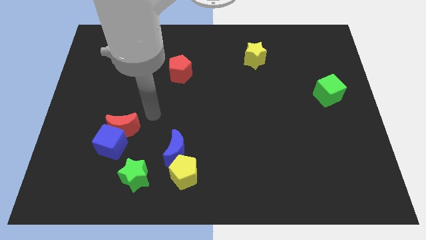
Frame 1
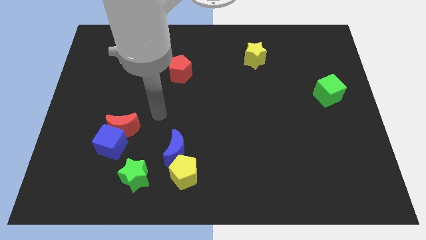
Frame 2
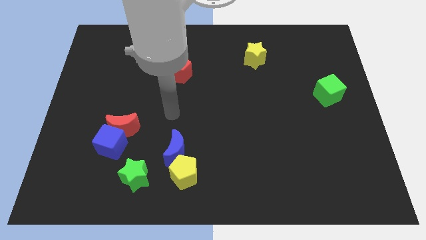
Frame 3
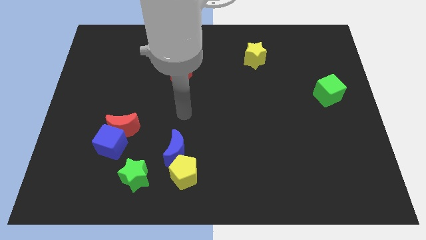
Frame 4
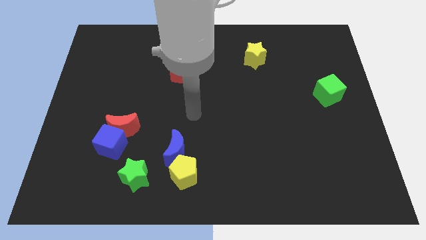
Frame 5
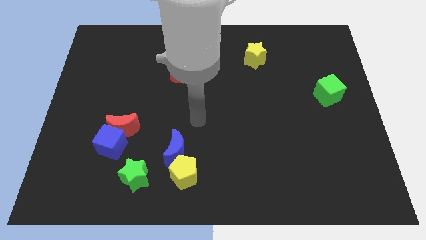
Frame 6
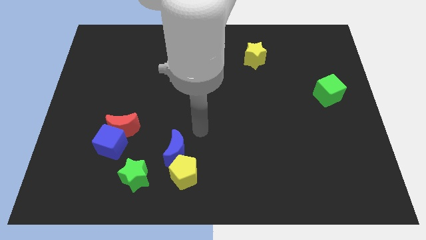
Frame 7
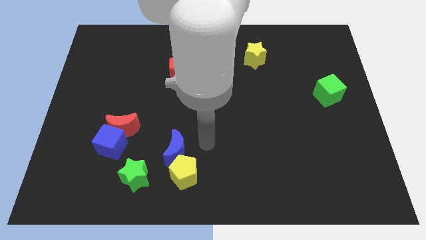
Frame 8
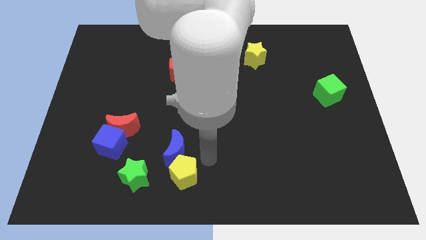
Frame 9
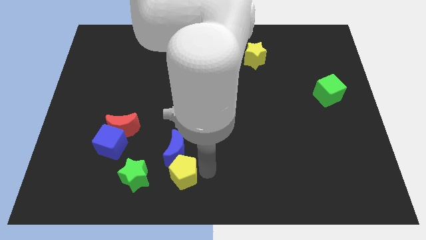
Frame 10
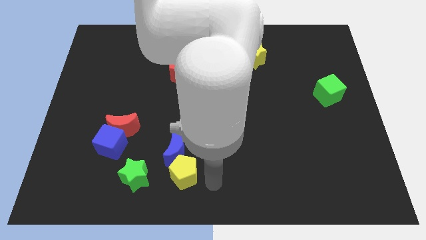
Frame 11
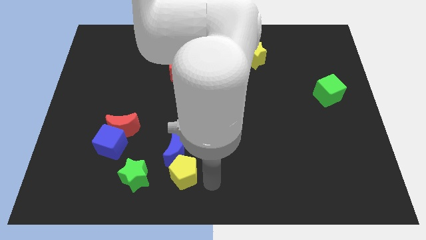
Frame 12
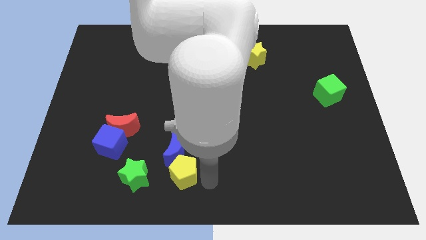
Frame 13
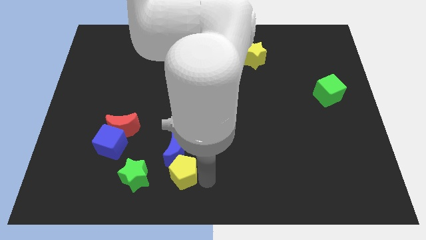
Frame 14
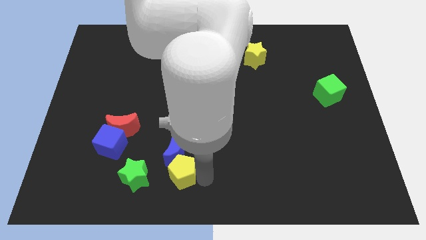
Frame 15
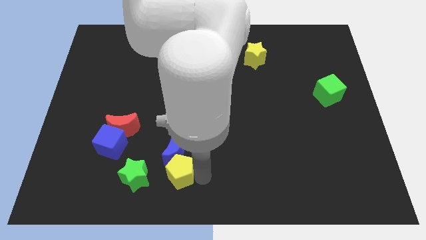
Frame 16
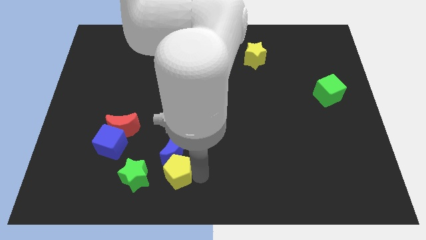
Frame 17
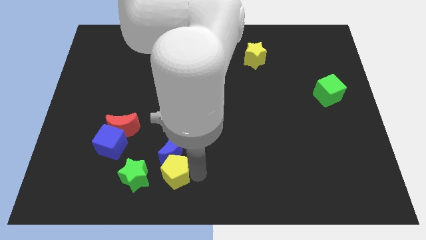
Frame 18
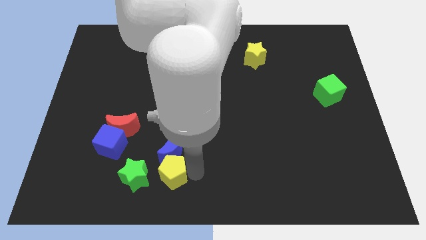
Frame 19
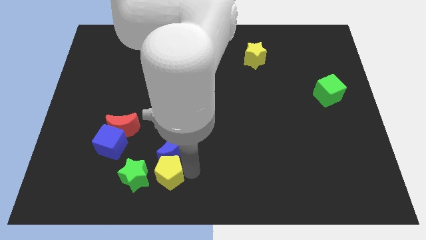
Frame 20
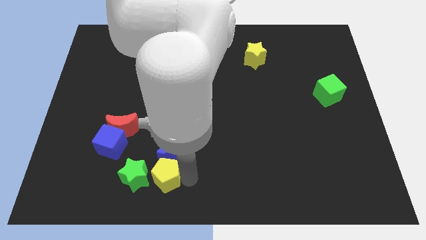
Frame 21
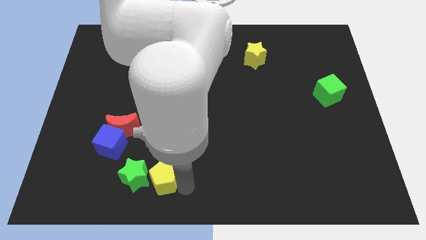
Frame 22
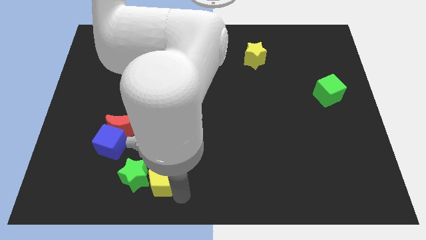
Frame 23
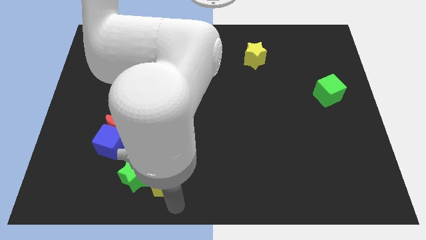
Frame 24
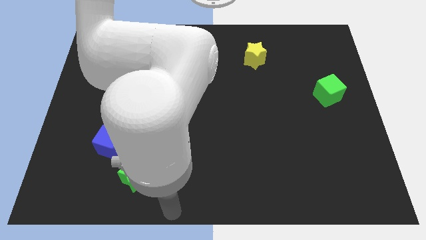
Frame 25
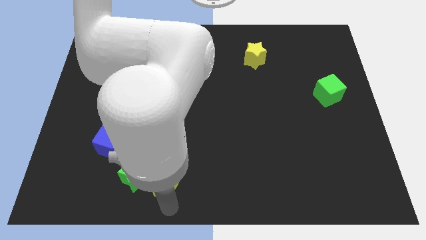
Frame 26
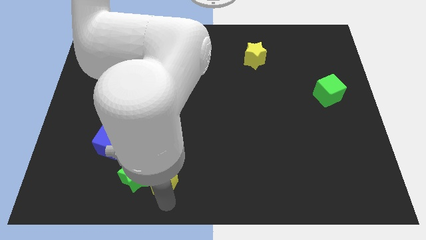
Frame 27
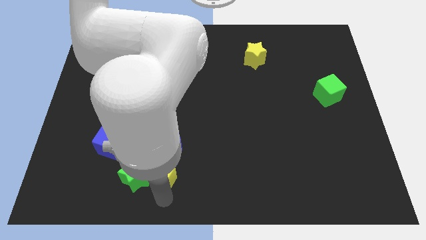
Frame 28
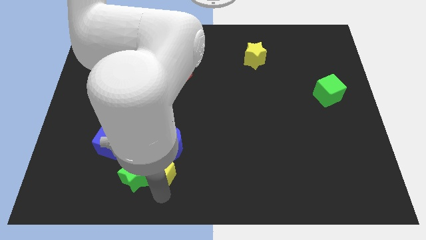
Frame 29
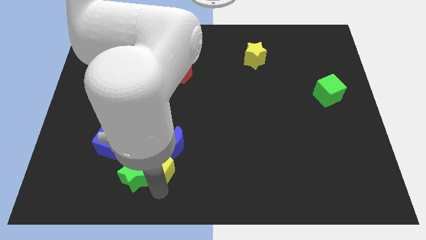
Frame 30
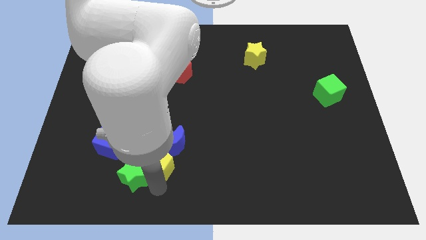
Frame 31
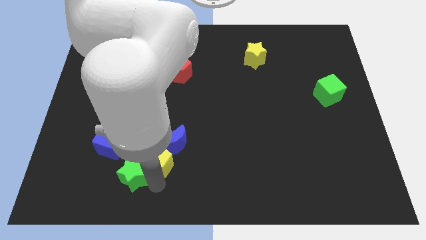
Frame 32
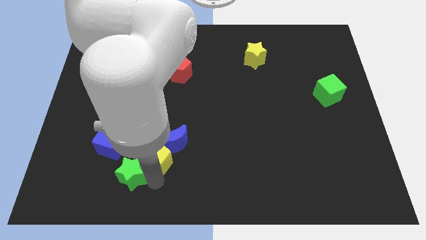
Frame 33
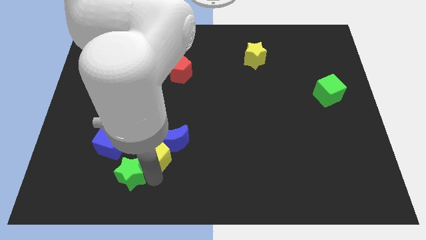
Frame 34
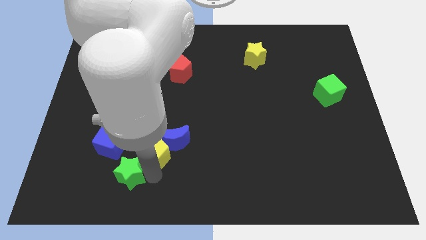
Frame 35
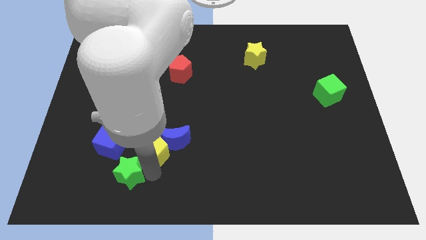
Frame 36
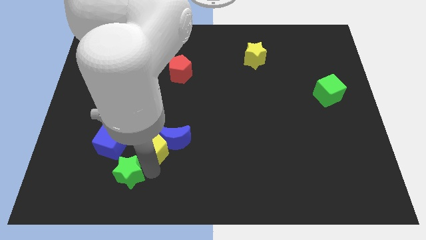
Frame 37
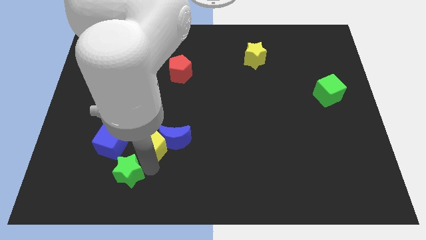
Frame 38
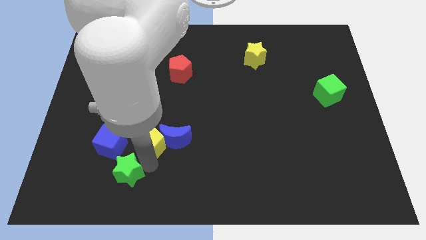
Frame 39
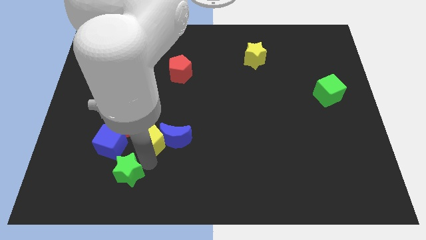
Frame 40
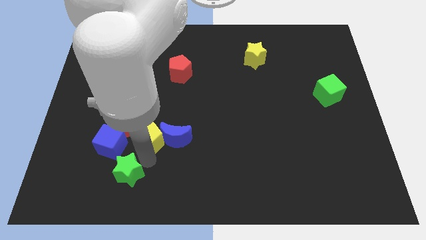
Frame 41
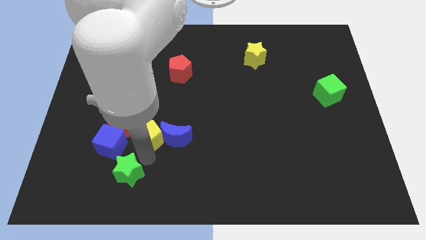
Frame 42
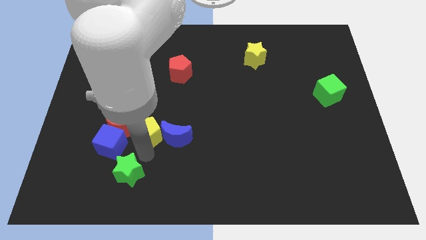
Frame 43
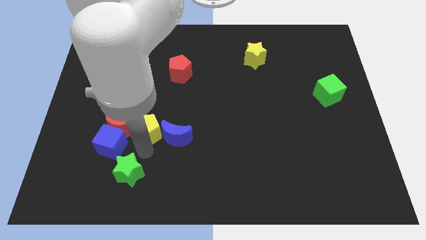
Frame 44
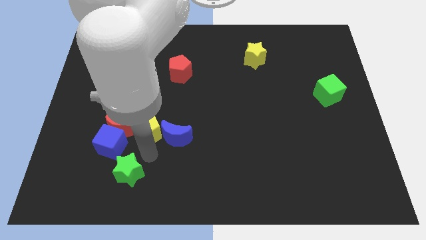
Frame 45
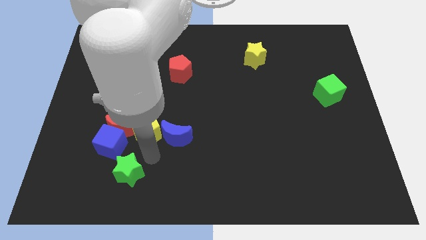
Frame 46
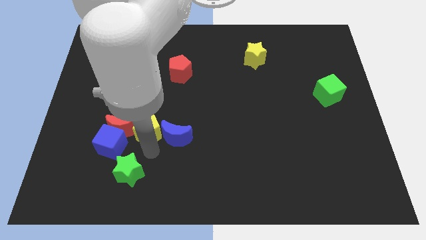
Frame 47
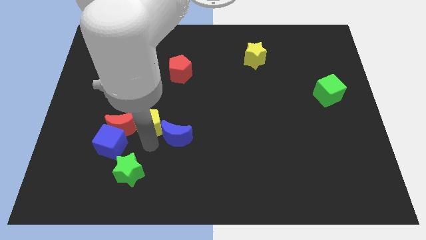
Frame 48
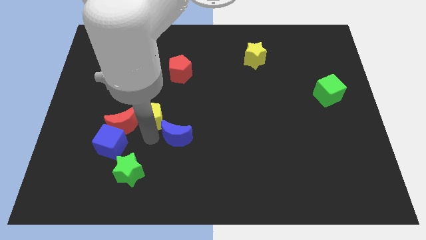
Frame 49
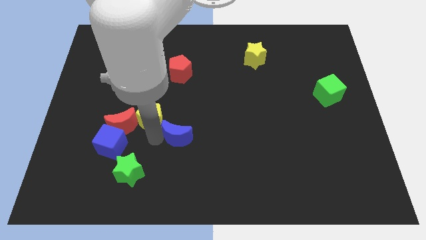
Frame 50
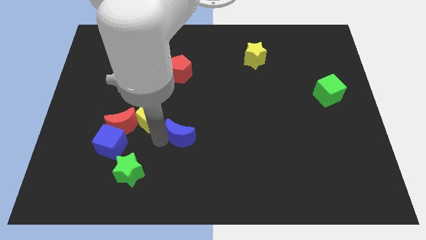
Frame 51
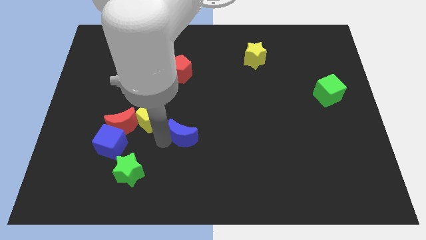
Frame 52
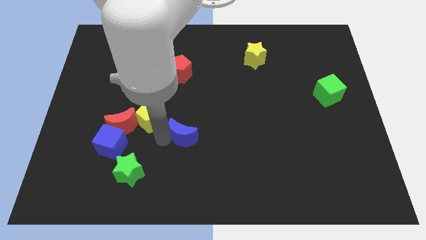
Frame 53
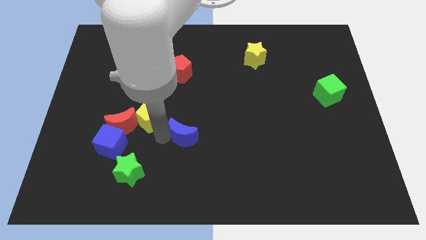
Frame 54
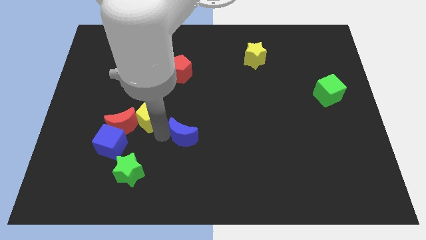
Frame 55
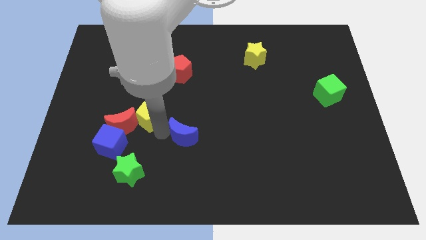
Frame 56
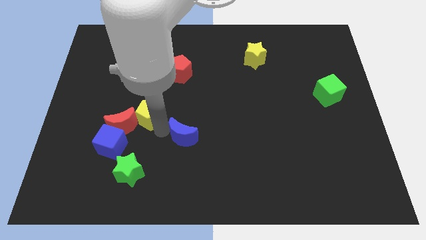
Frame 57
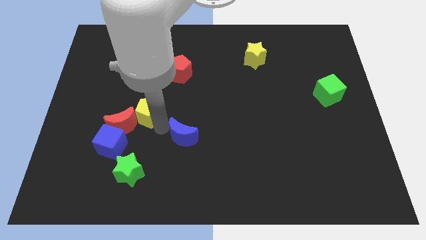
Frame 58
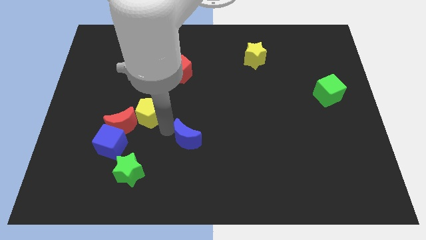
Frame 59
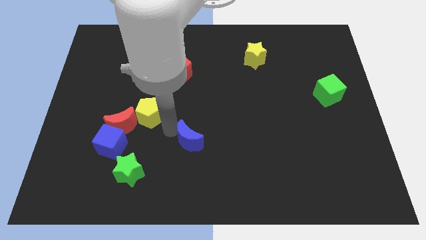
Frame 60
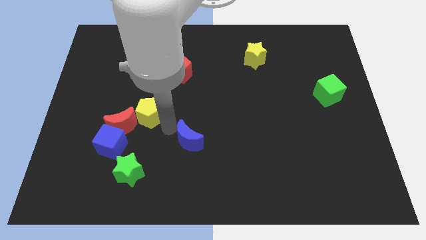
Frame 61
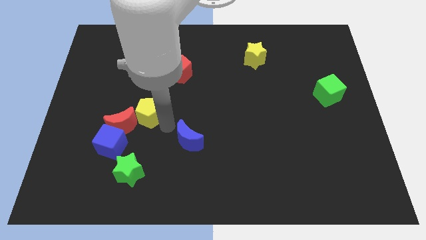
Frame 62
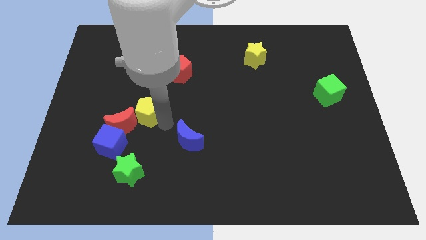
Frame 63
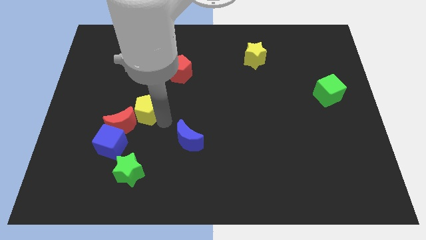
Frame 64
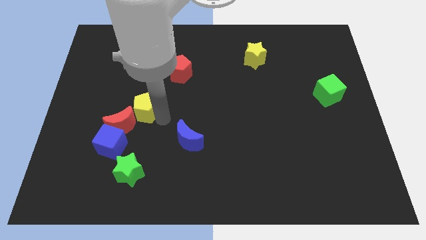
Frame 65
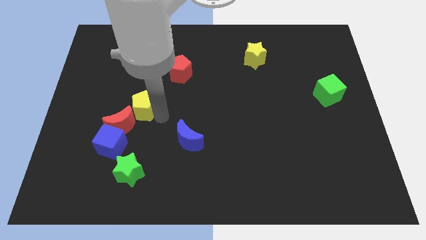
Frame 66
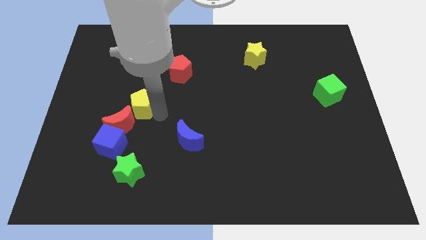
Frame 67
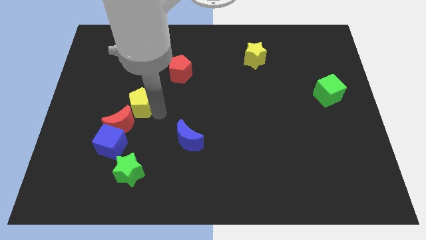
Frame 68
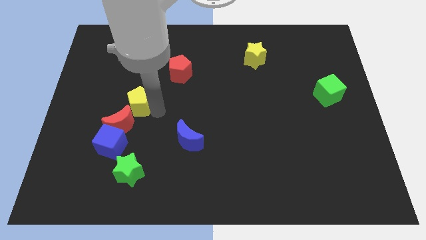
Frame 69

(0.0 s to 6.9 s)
push the yellow pentagon upwards and to the left diagonally

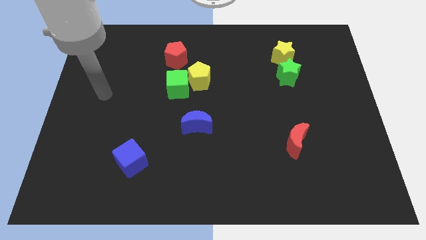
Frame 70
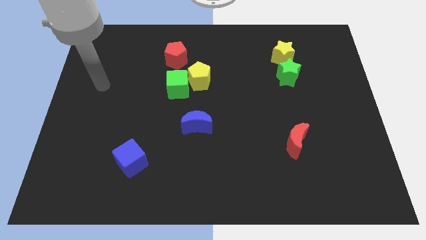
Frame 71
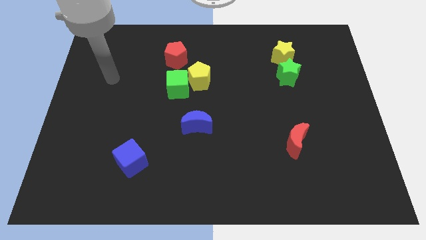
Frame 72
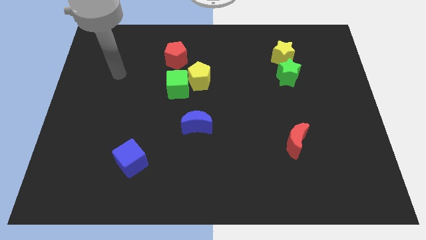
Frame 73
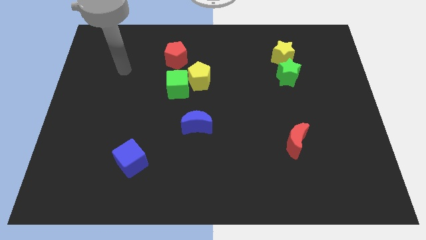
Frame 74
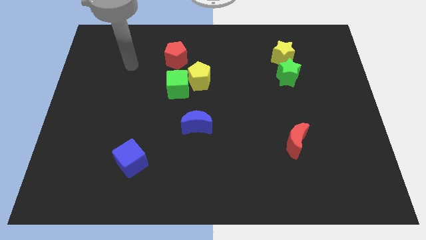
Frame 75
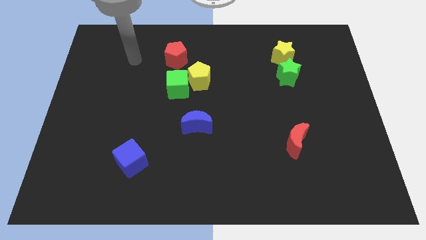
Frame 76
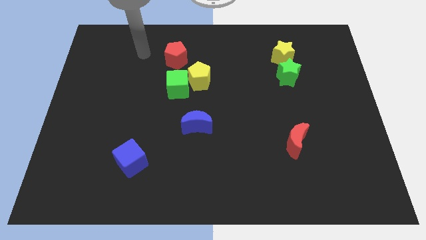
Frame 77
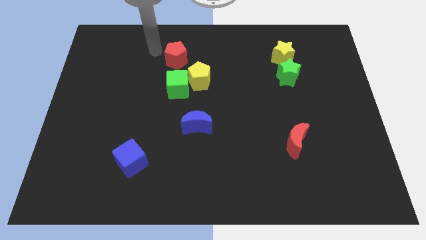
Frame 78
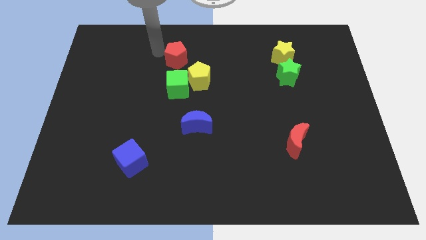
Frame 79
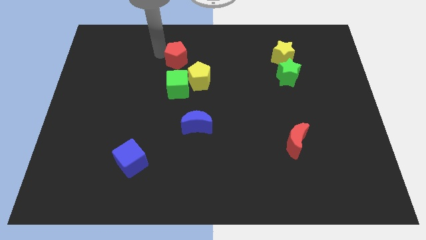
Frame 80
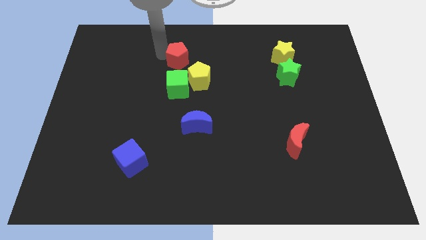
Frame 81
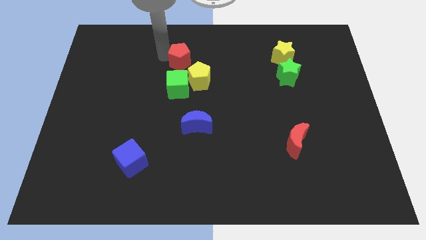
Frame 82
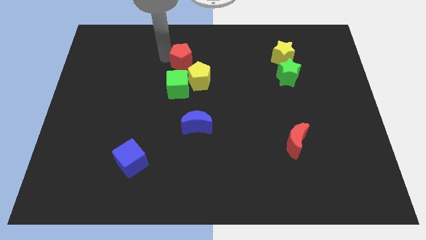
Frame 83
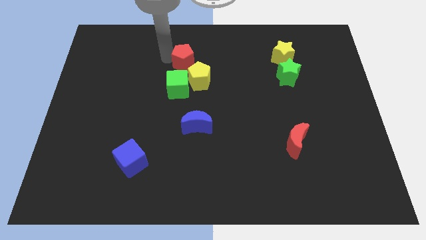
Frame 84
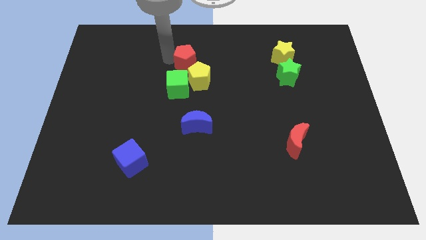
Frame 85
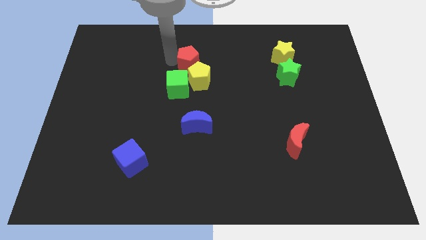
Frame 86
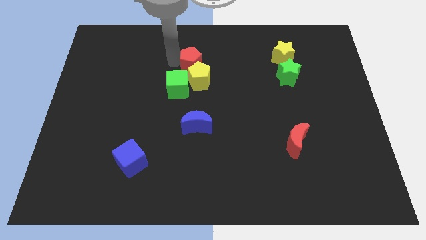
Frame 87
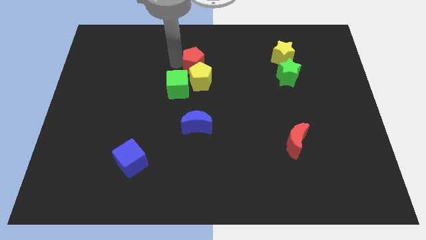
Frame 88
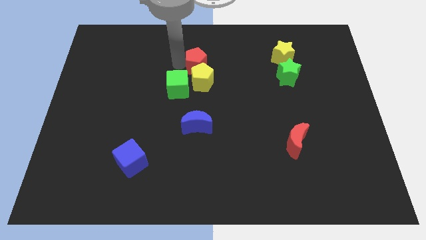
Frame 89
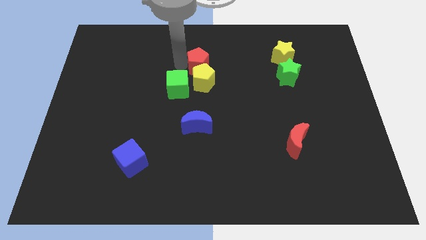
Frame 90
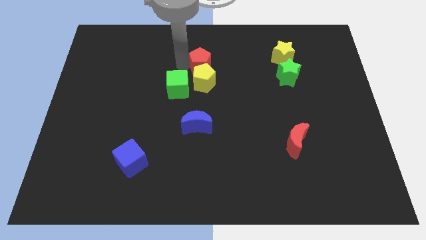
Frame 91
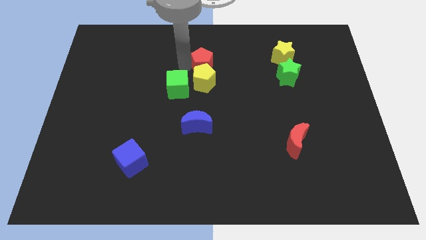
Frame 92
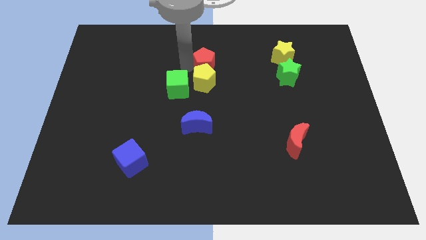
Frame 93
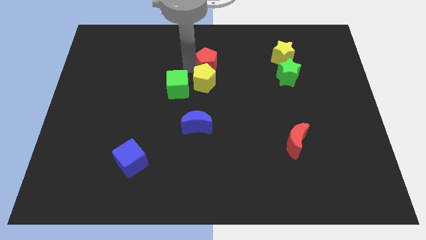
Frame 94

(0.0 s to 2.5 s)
push the red pentagon downwards and then to the right a little bit
